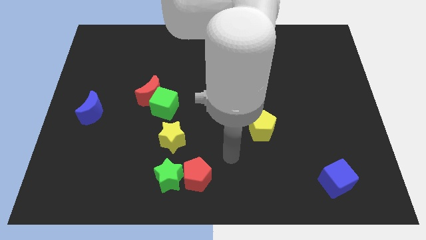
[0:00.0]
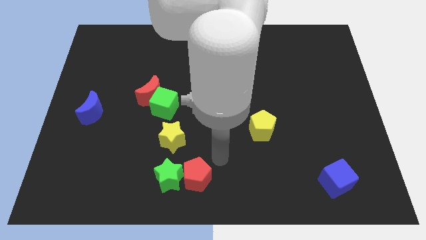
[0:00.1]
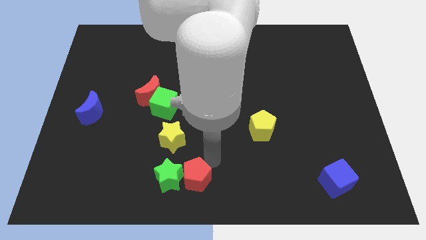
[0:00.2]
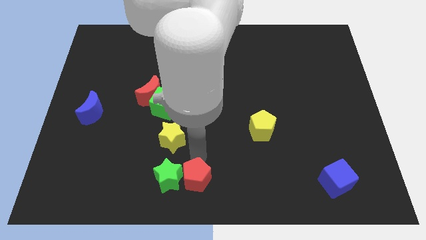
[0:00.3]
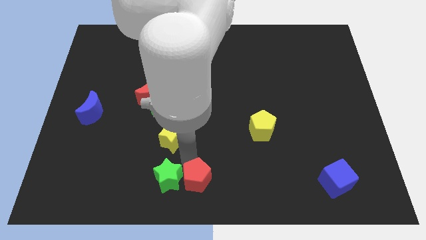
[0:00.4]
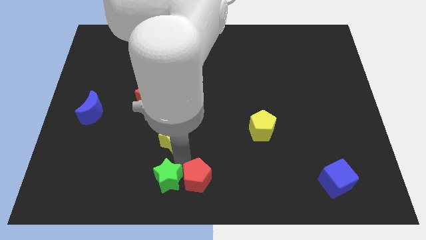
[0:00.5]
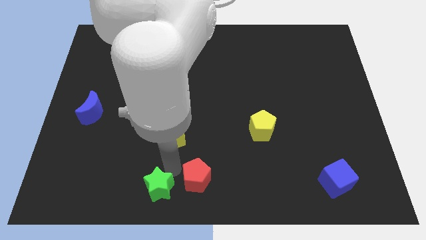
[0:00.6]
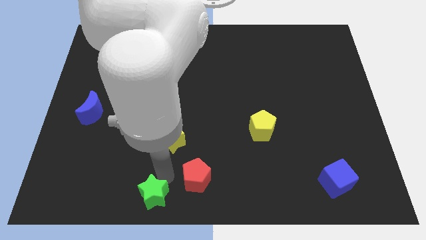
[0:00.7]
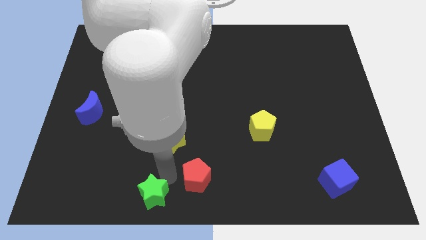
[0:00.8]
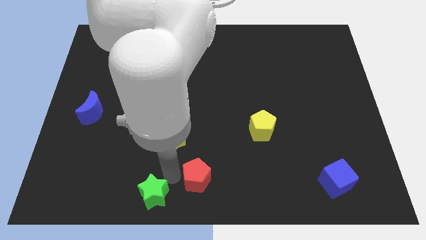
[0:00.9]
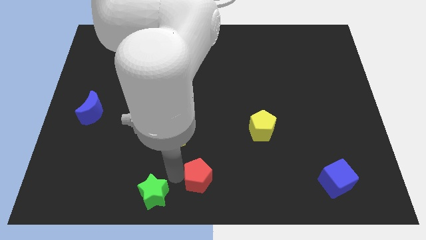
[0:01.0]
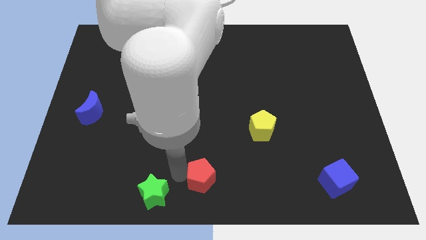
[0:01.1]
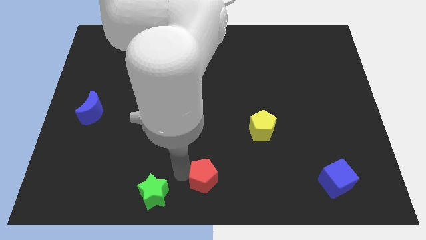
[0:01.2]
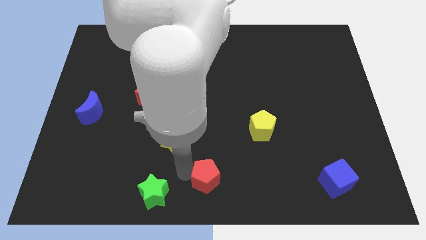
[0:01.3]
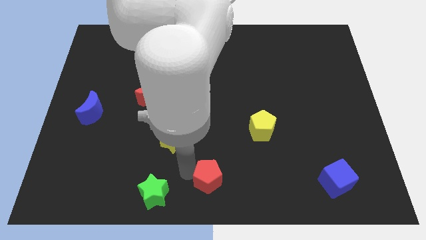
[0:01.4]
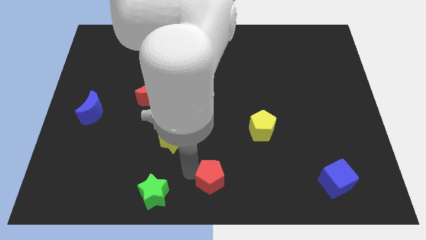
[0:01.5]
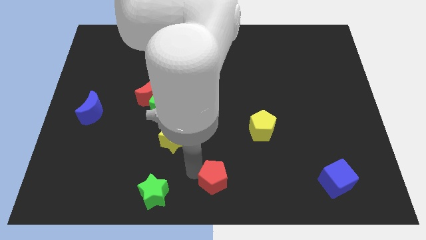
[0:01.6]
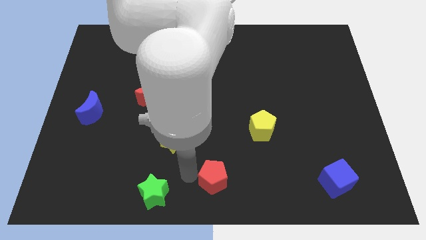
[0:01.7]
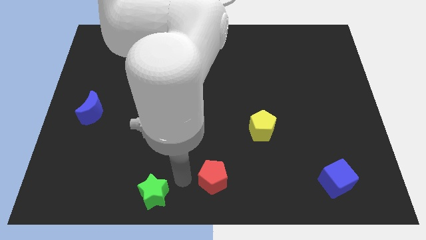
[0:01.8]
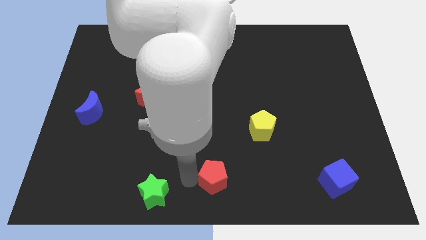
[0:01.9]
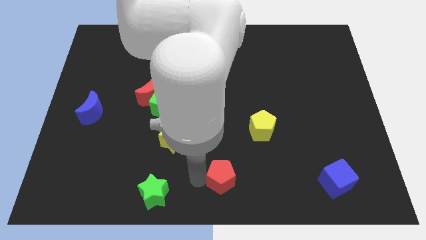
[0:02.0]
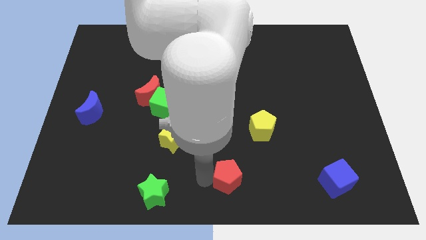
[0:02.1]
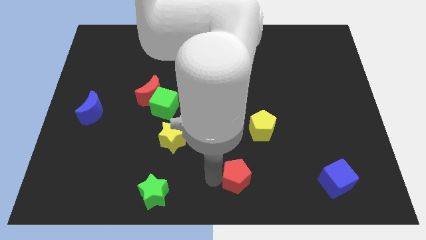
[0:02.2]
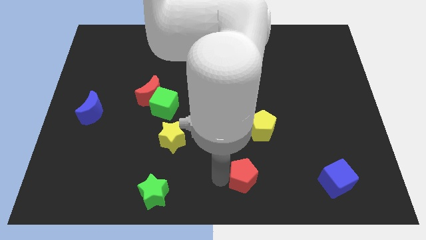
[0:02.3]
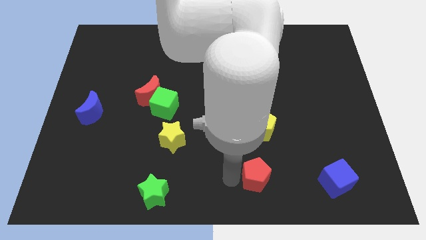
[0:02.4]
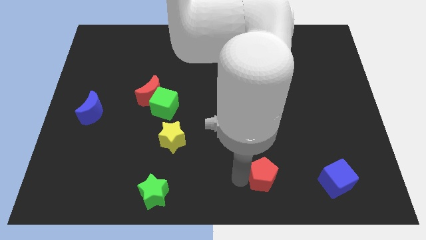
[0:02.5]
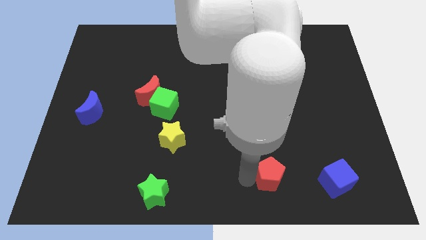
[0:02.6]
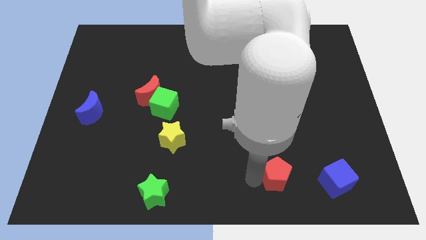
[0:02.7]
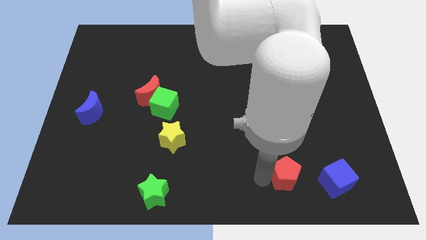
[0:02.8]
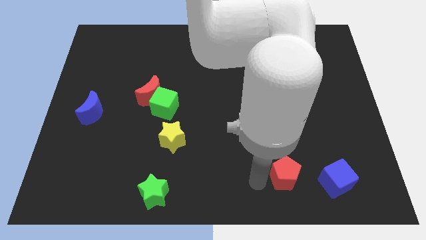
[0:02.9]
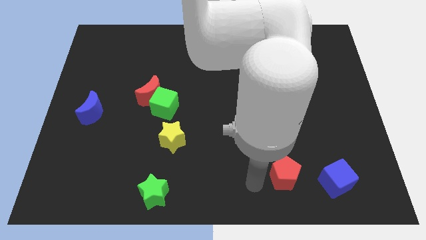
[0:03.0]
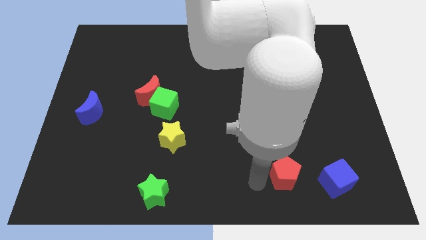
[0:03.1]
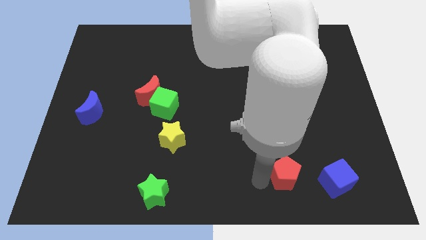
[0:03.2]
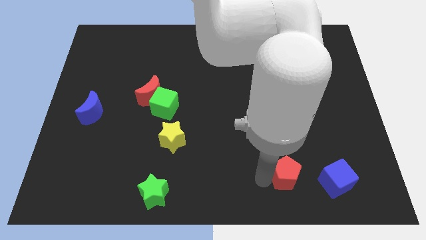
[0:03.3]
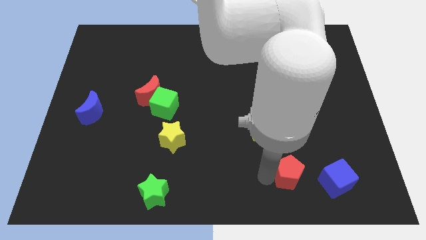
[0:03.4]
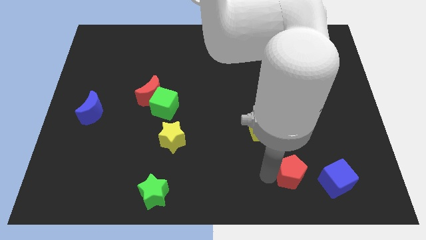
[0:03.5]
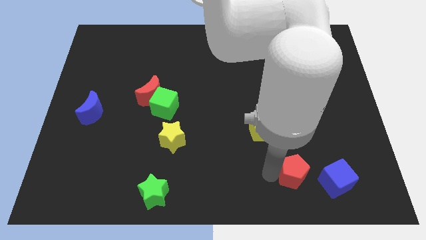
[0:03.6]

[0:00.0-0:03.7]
move the red pentagon right

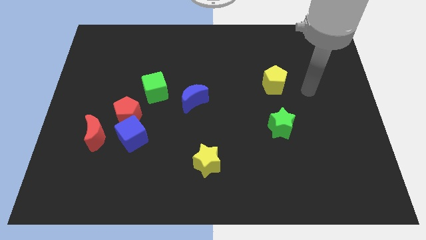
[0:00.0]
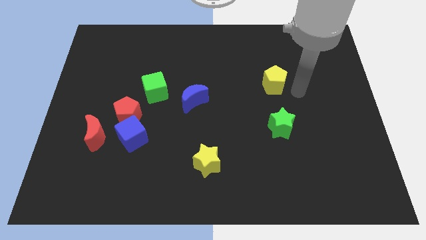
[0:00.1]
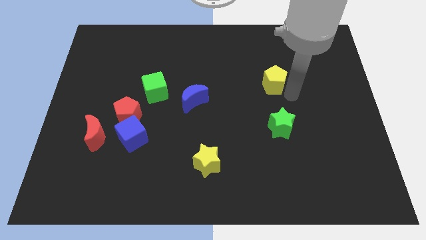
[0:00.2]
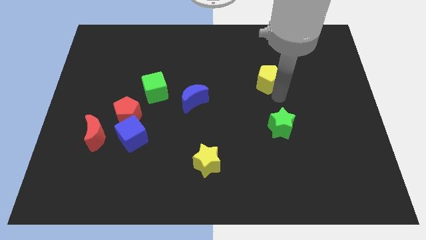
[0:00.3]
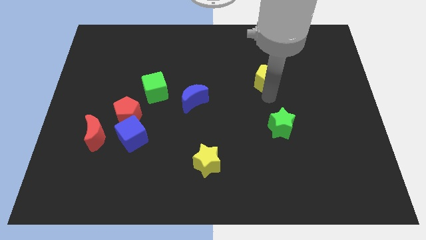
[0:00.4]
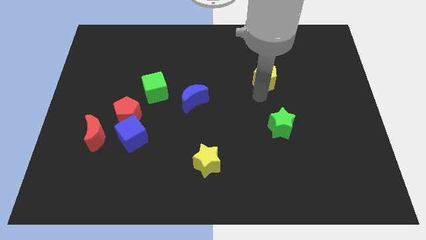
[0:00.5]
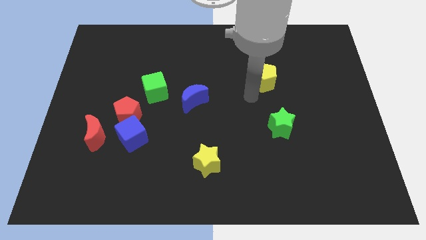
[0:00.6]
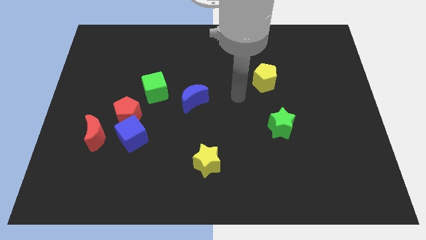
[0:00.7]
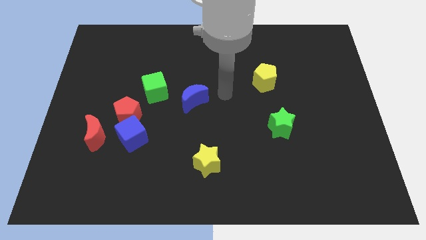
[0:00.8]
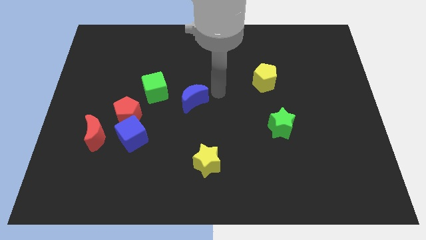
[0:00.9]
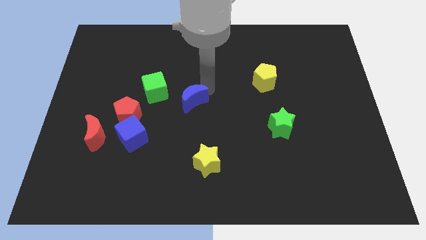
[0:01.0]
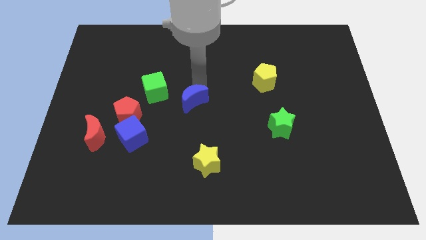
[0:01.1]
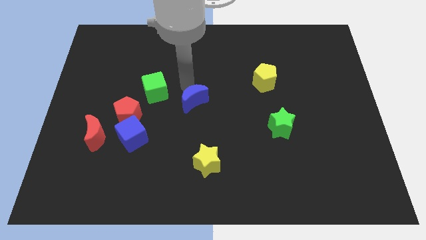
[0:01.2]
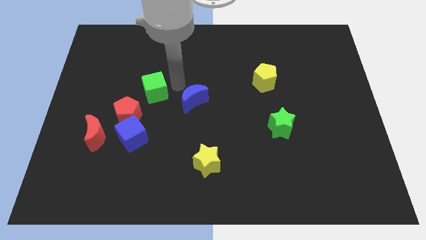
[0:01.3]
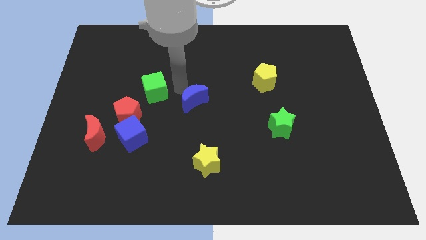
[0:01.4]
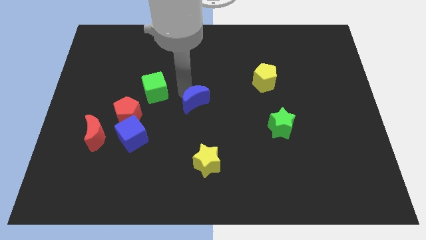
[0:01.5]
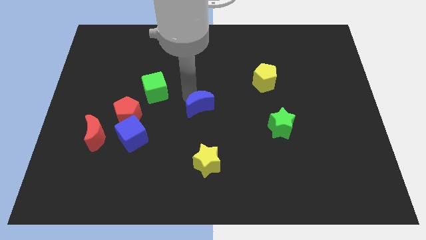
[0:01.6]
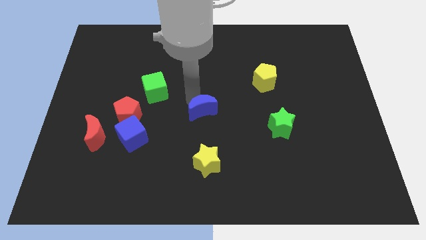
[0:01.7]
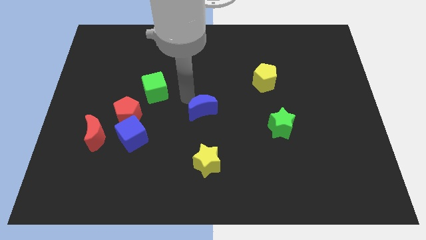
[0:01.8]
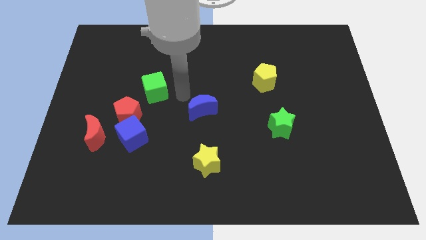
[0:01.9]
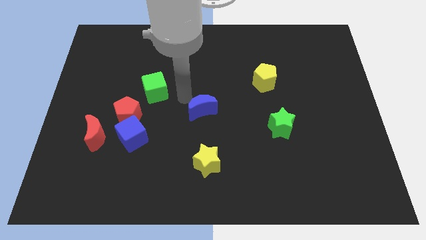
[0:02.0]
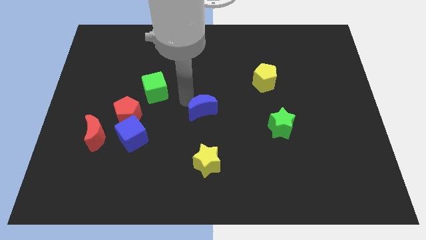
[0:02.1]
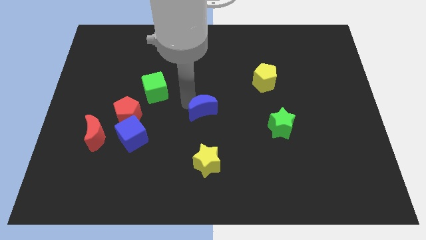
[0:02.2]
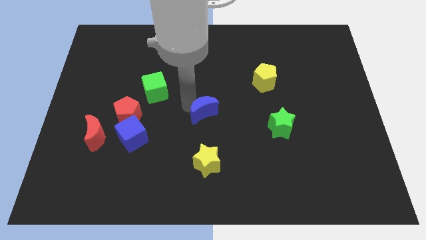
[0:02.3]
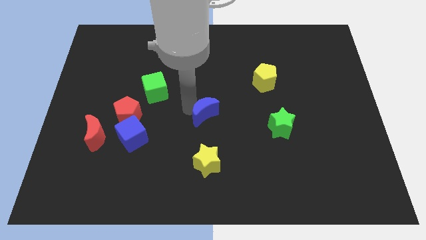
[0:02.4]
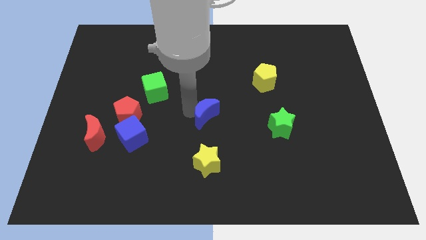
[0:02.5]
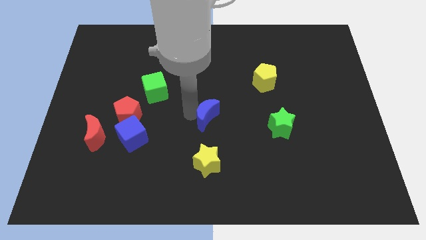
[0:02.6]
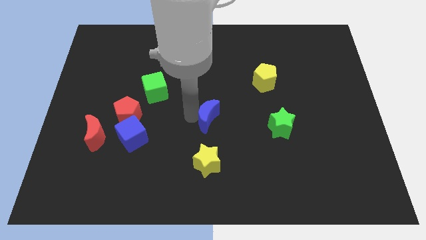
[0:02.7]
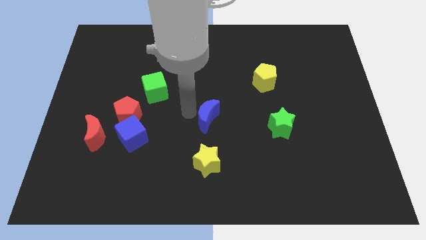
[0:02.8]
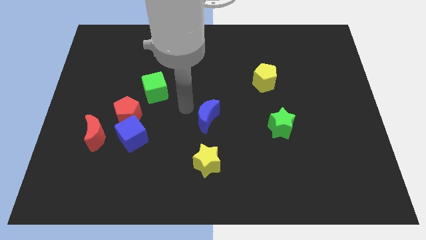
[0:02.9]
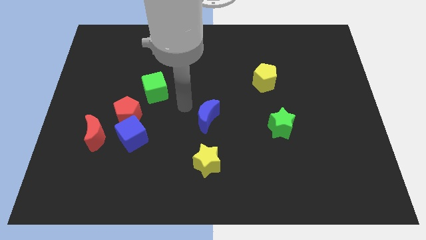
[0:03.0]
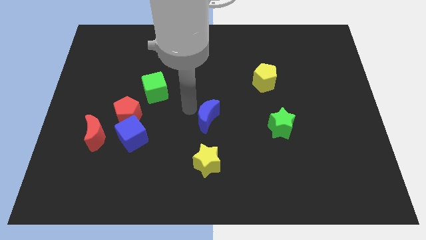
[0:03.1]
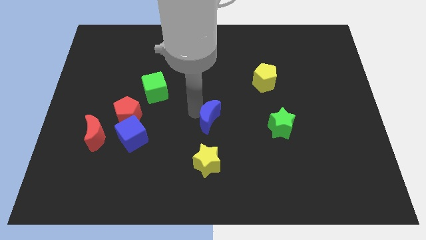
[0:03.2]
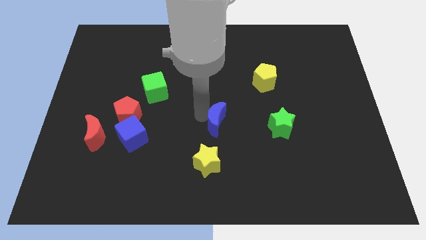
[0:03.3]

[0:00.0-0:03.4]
slide the blue moon downwards and to the right a little

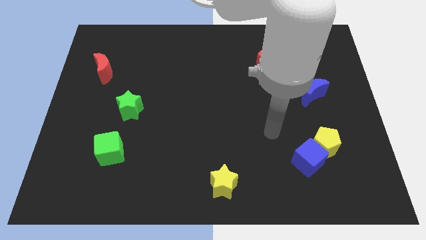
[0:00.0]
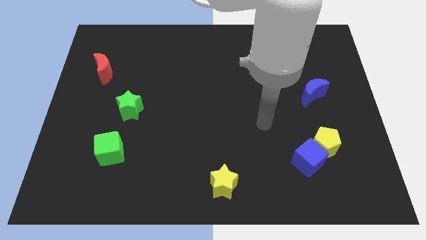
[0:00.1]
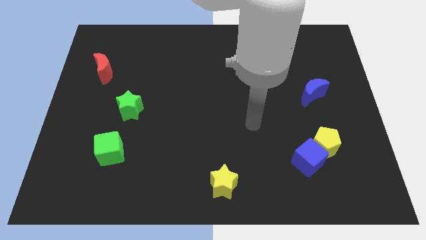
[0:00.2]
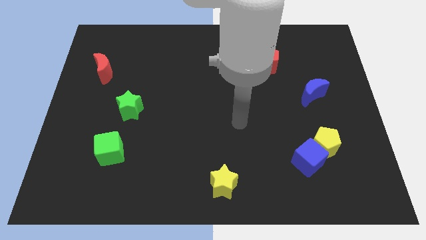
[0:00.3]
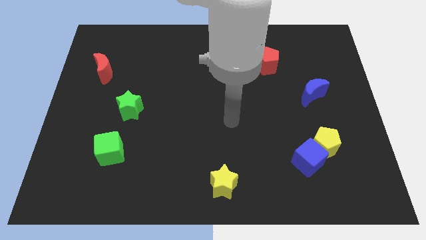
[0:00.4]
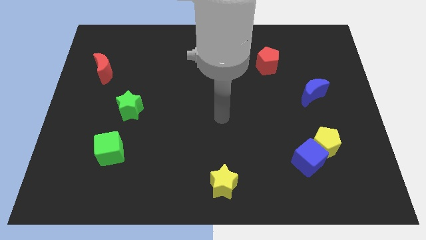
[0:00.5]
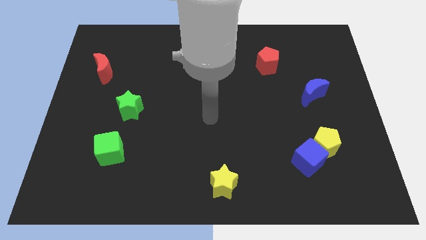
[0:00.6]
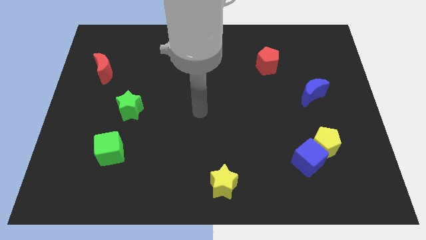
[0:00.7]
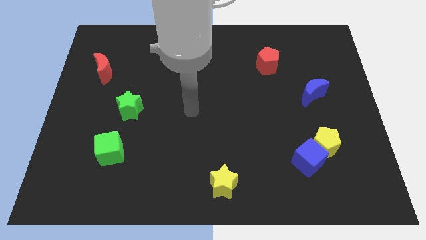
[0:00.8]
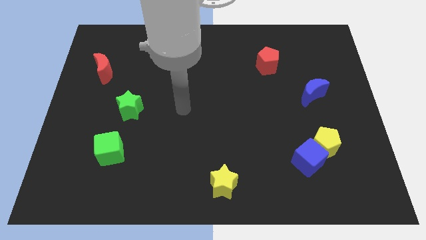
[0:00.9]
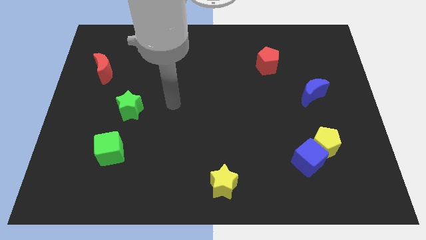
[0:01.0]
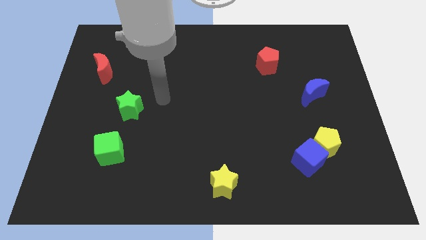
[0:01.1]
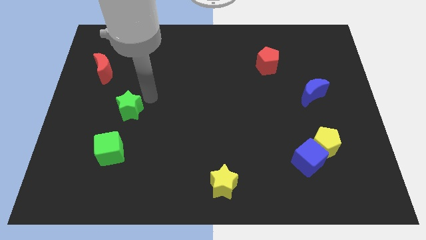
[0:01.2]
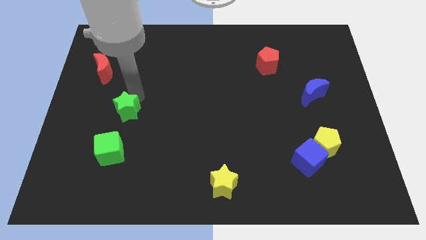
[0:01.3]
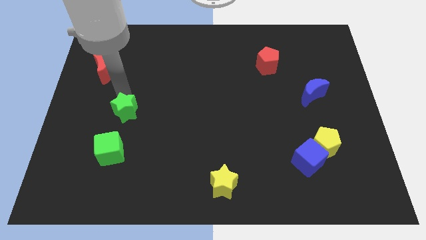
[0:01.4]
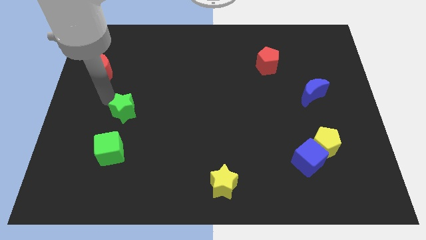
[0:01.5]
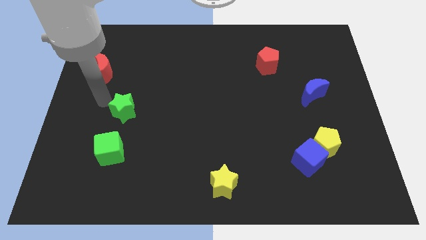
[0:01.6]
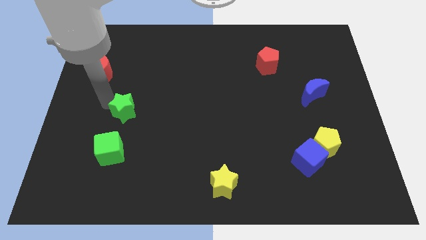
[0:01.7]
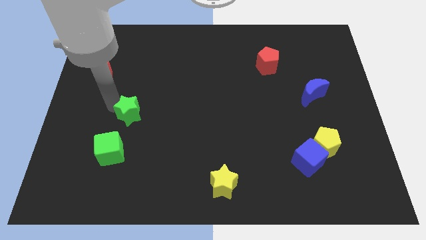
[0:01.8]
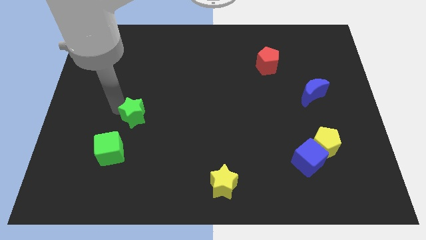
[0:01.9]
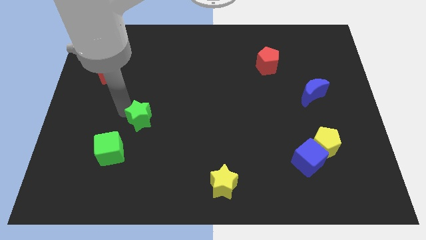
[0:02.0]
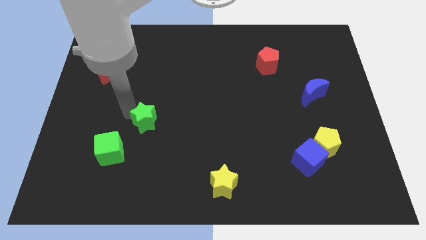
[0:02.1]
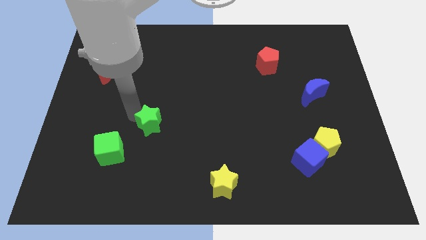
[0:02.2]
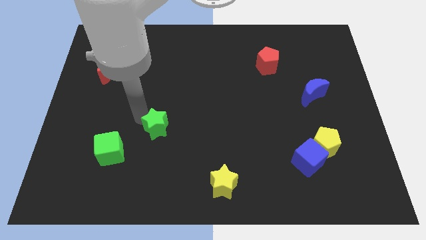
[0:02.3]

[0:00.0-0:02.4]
move the green star down and right a little bit
